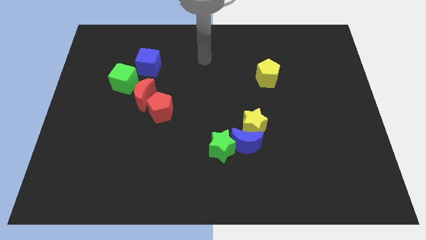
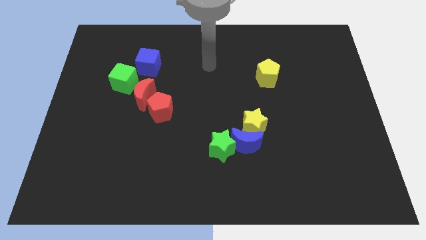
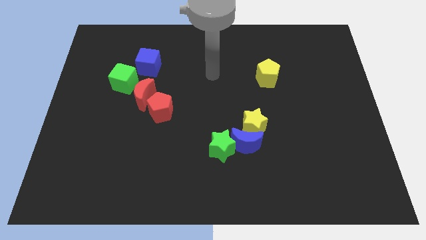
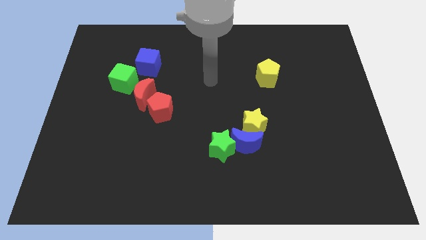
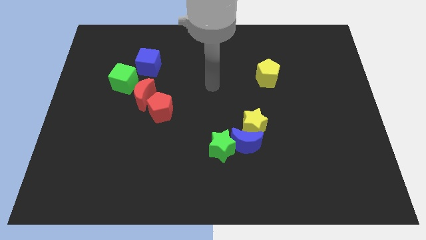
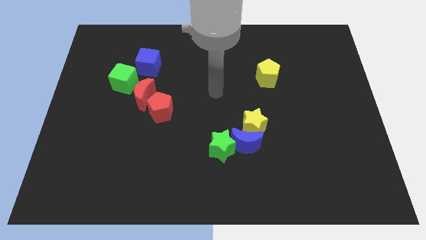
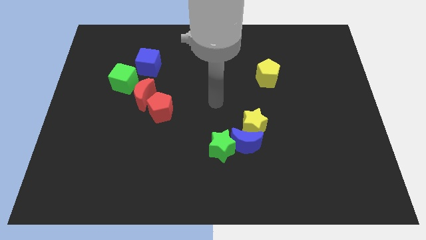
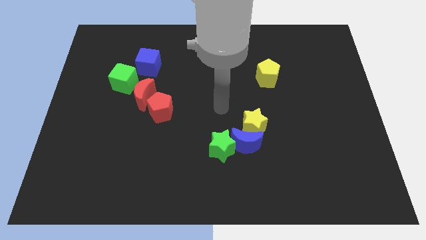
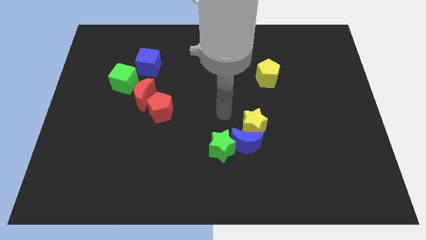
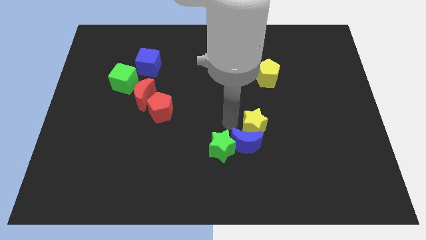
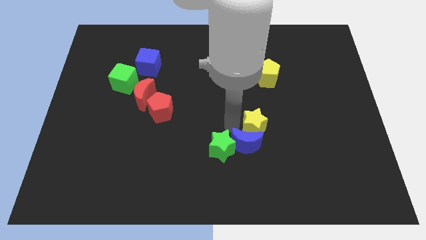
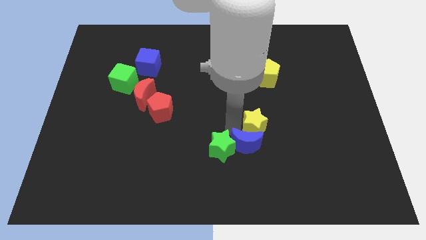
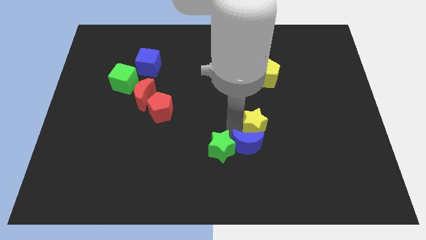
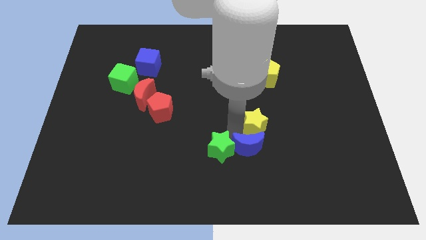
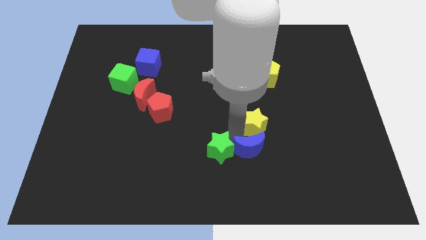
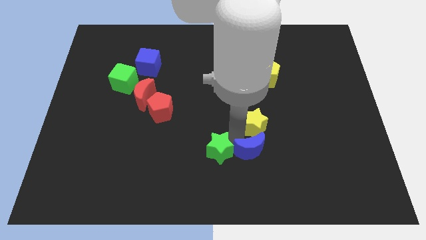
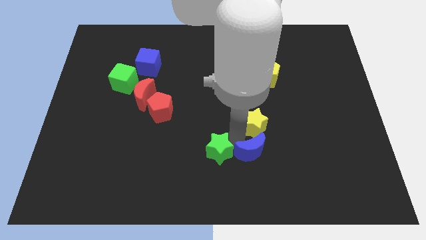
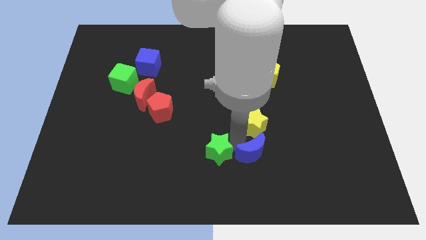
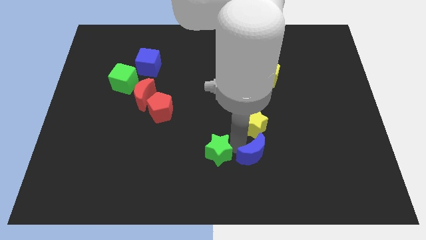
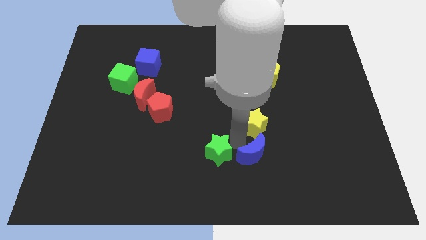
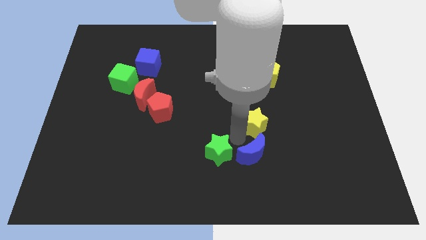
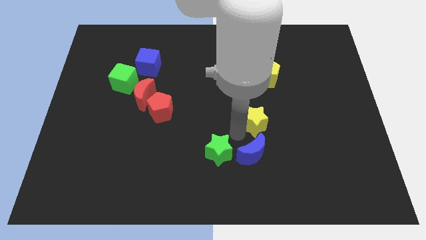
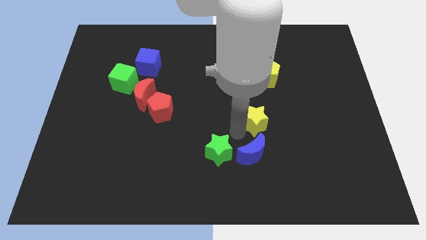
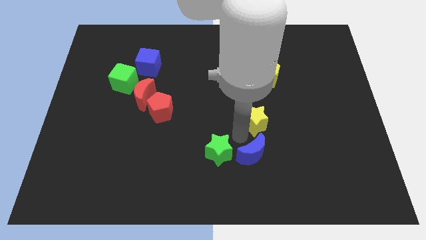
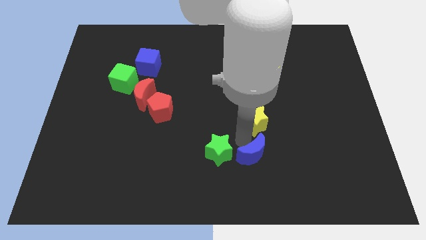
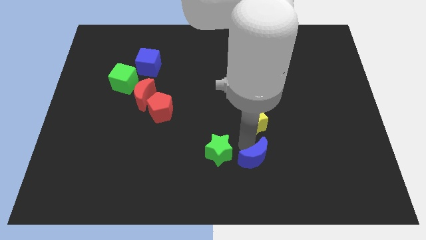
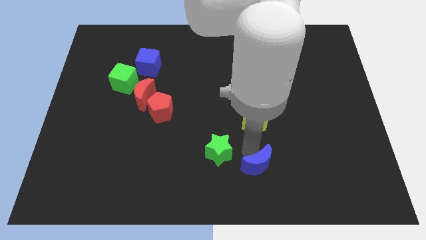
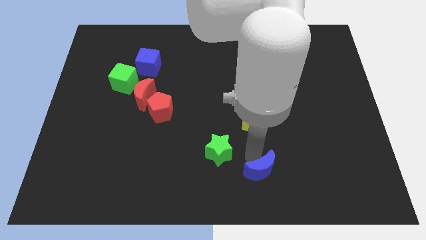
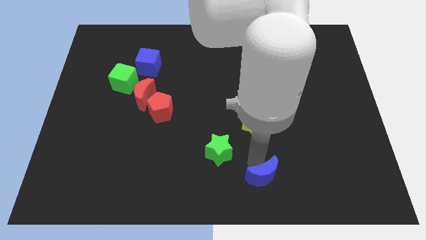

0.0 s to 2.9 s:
move the blue moon away from the yellow star and green star

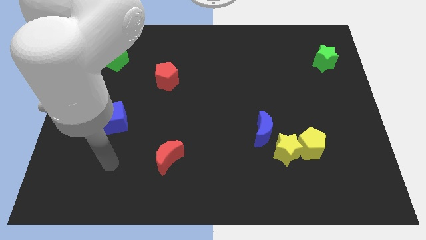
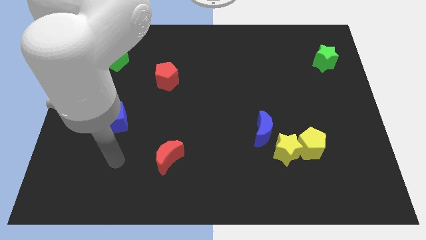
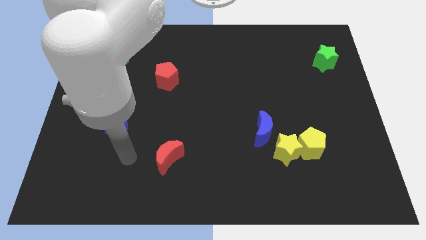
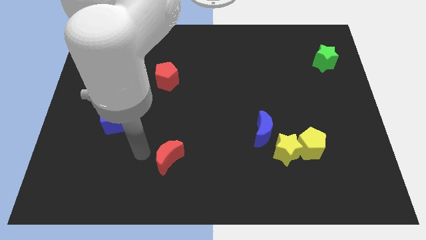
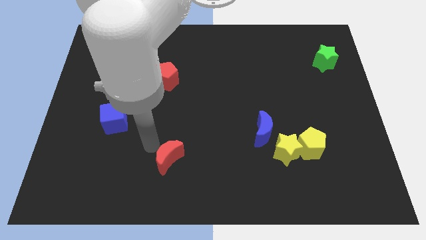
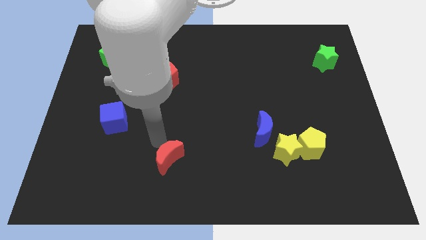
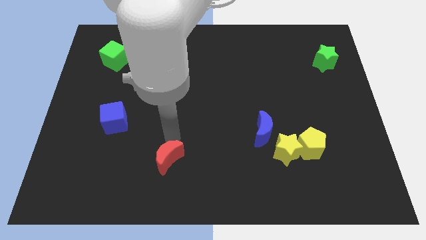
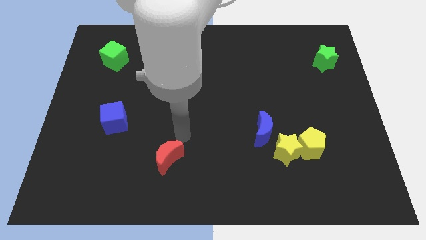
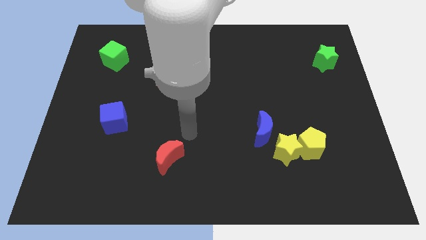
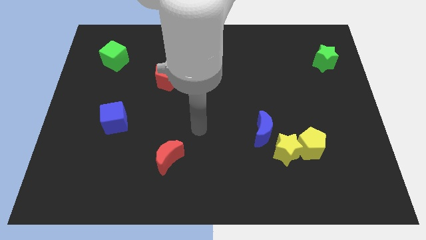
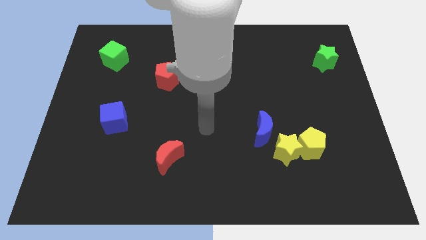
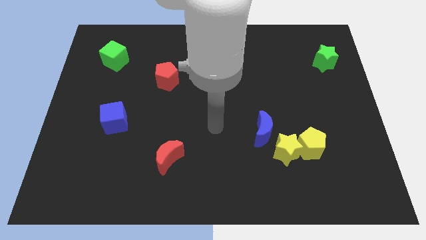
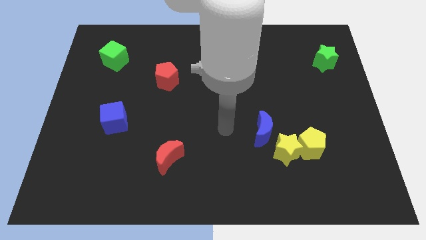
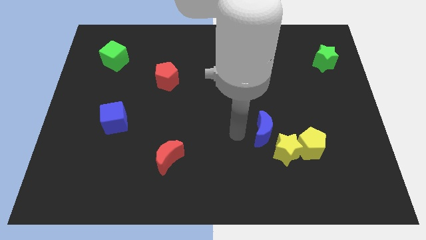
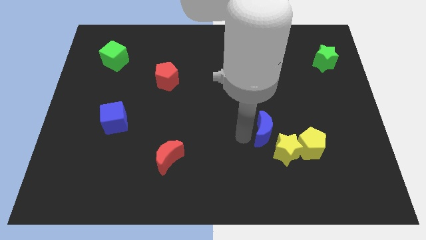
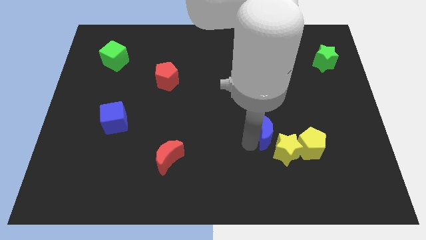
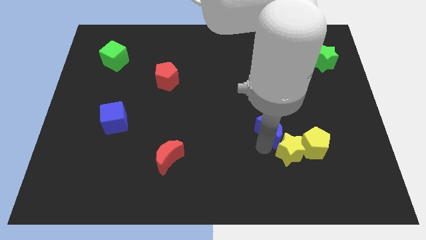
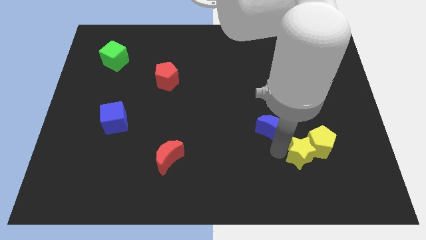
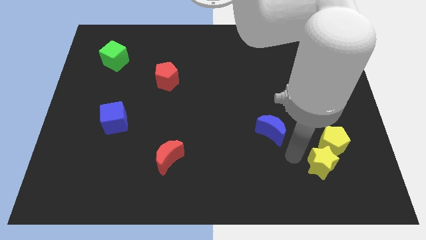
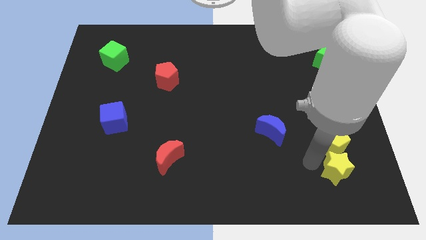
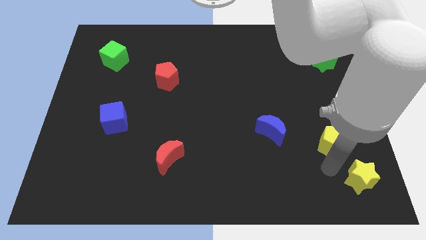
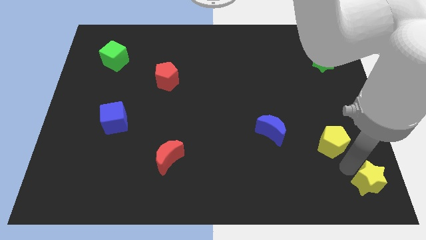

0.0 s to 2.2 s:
move the yellow pentagon away from the yellow star

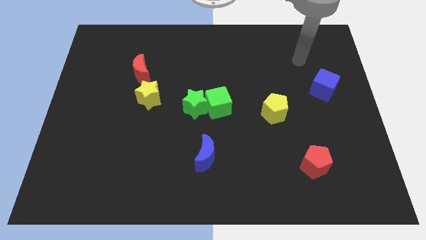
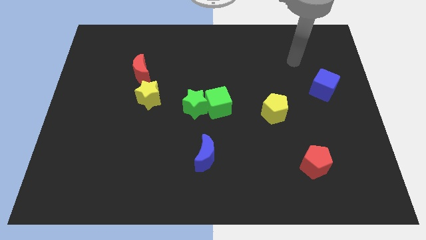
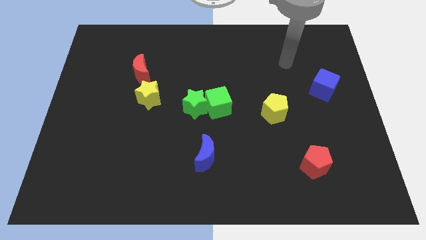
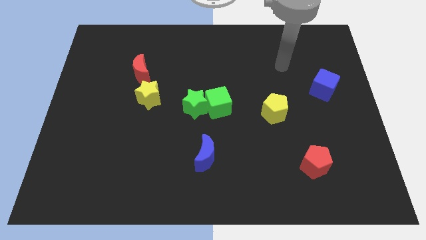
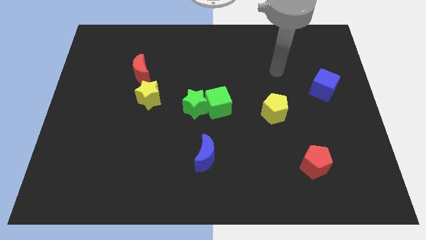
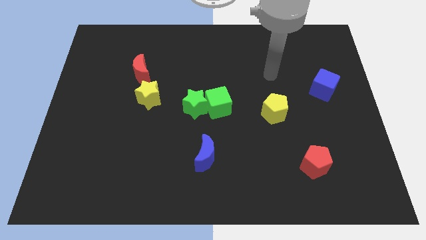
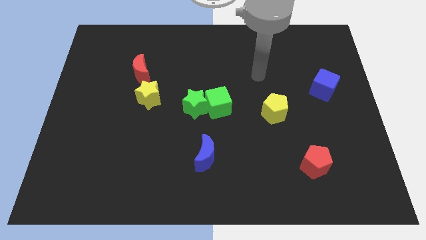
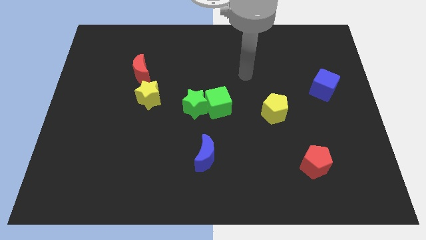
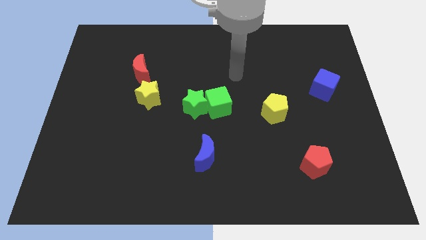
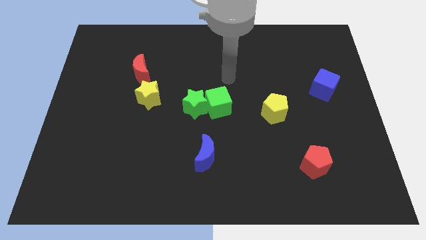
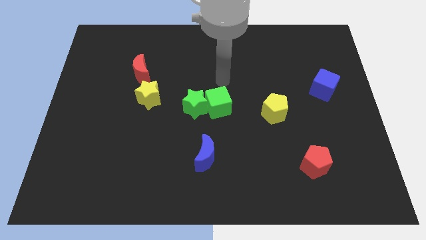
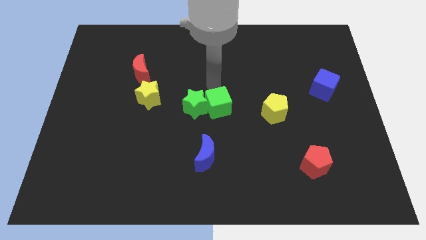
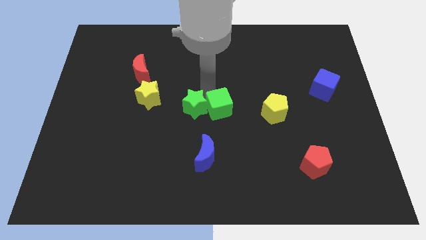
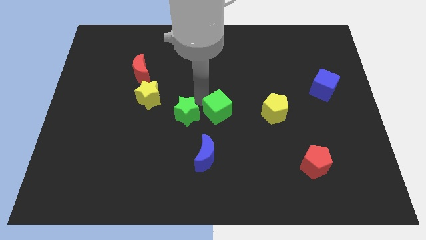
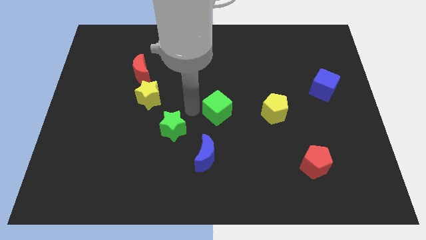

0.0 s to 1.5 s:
separate the green cube from the green star

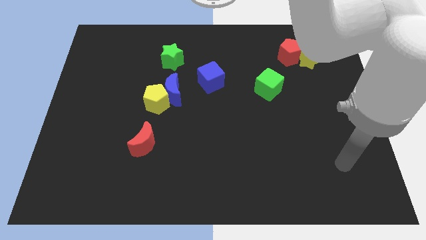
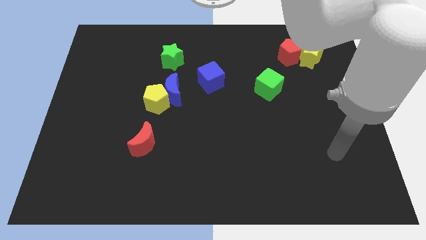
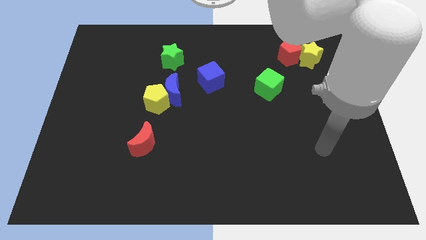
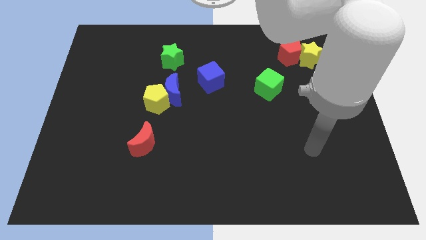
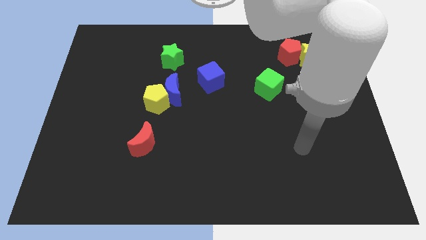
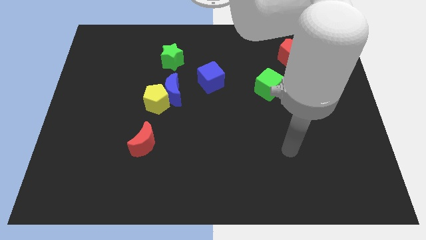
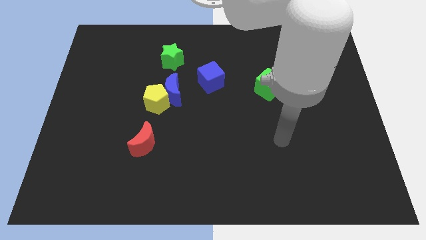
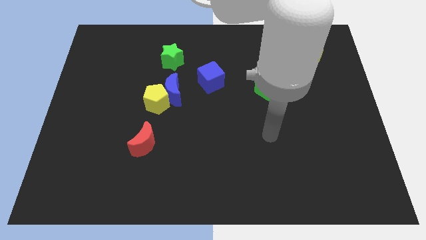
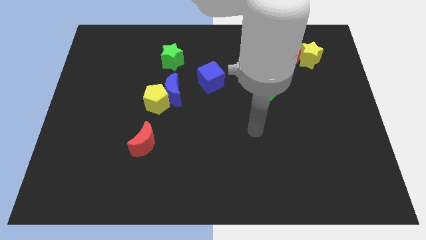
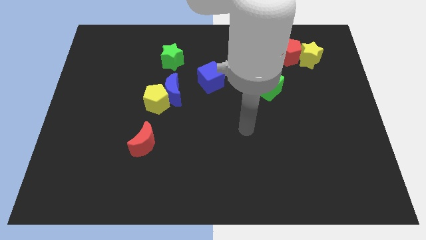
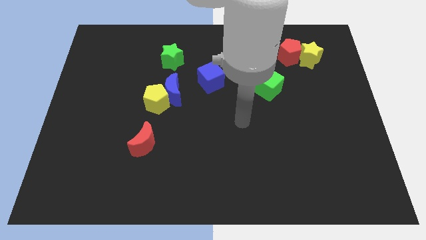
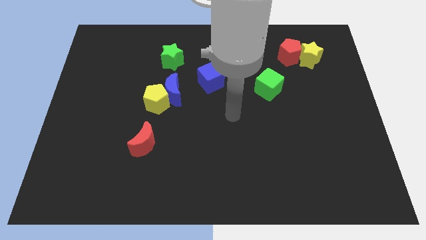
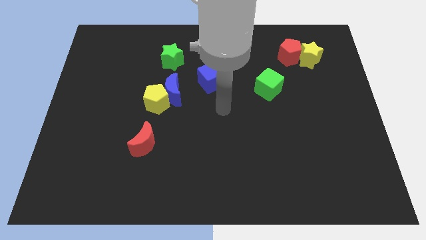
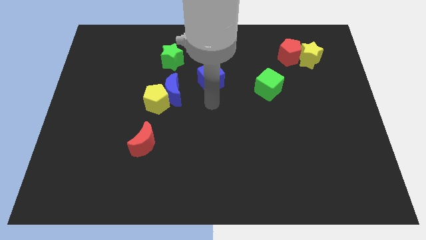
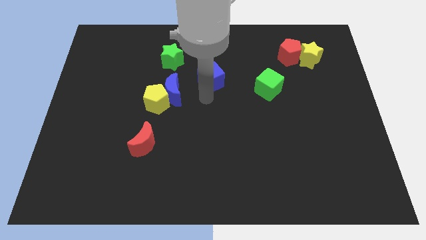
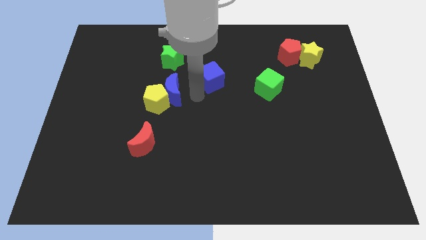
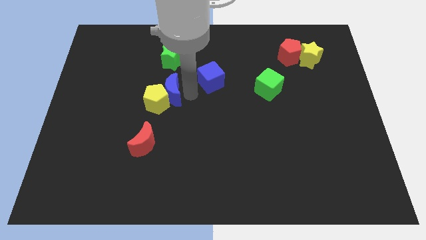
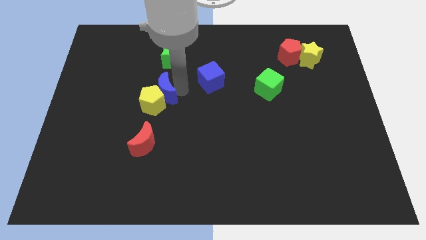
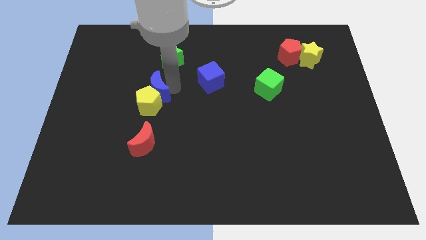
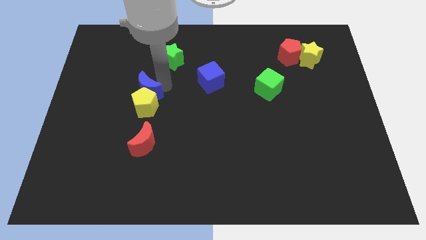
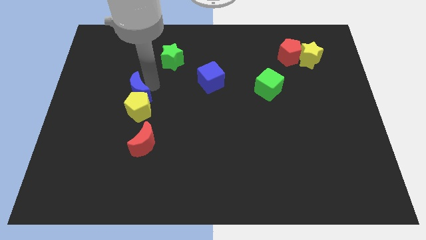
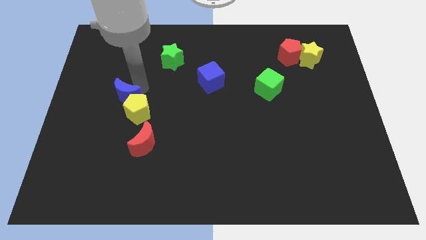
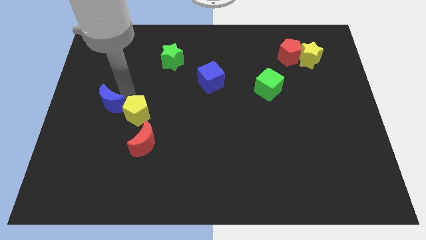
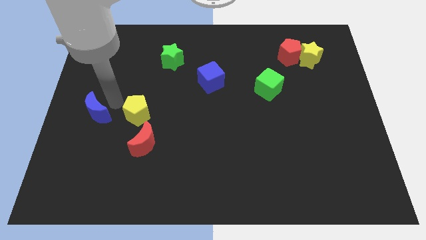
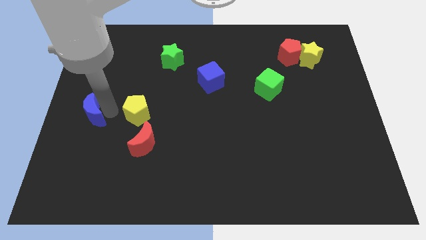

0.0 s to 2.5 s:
move the yellow pentagon away from the blue moon

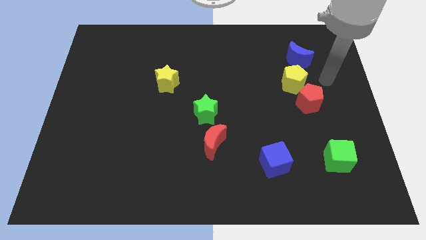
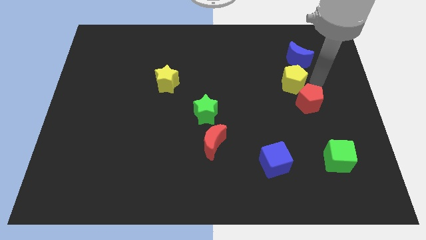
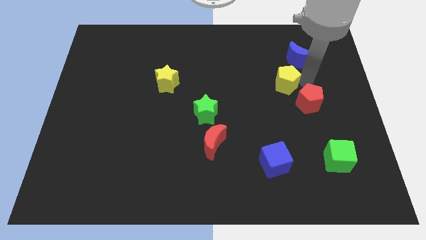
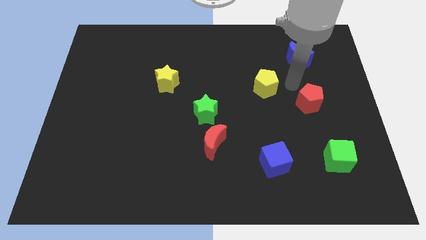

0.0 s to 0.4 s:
move the red pentagon away from the yellow pentagon
